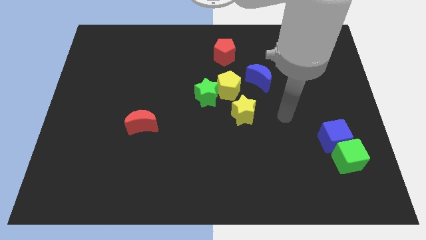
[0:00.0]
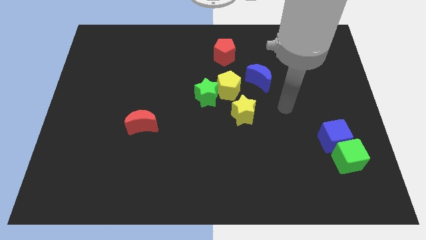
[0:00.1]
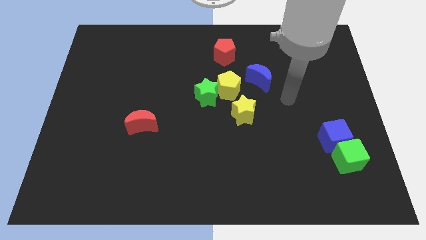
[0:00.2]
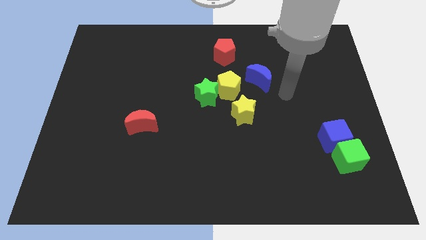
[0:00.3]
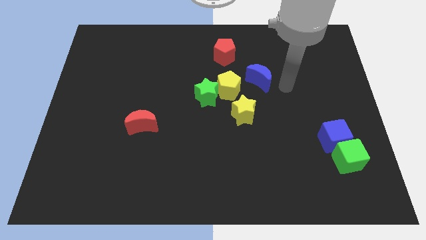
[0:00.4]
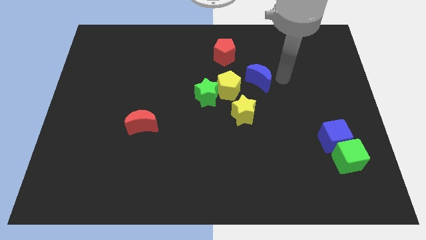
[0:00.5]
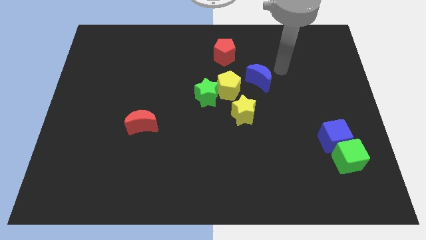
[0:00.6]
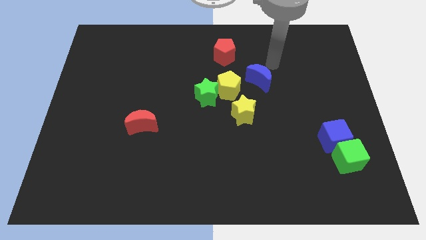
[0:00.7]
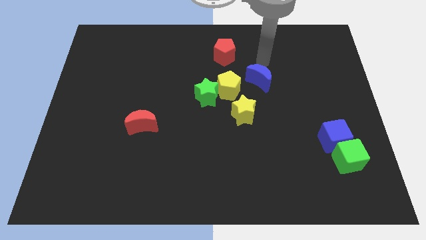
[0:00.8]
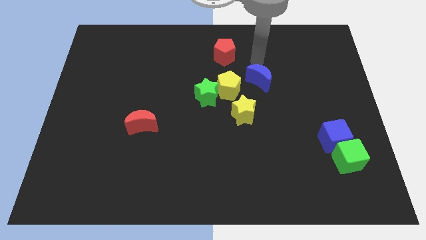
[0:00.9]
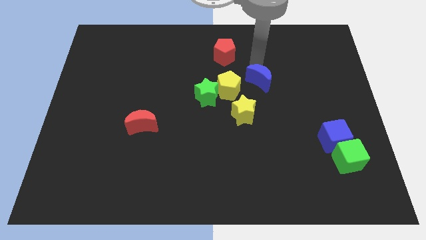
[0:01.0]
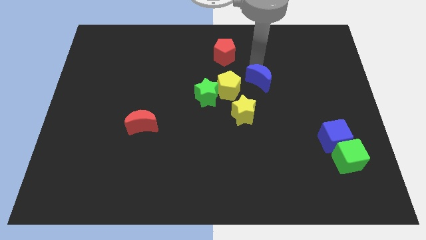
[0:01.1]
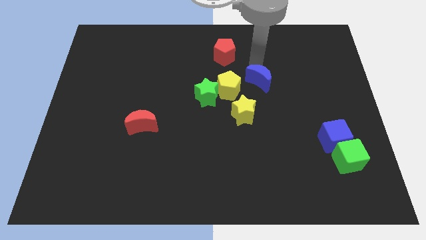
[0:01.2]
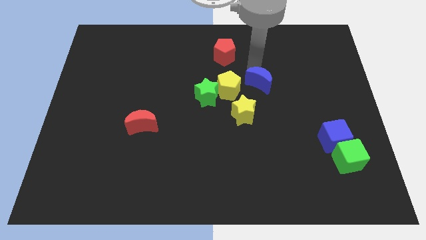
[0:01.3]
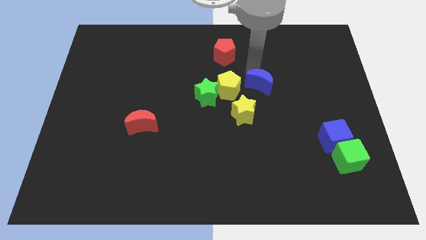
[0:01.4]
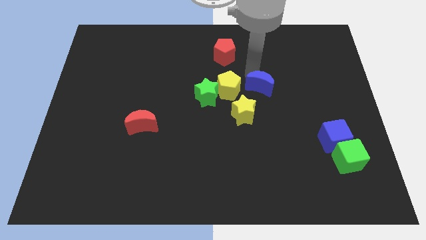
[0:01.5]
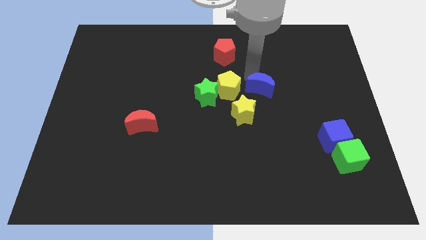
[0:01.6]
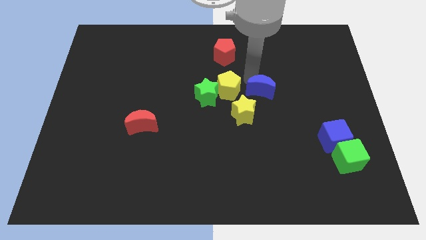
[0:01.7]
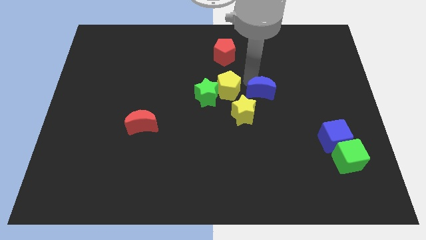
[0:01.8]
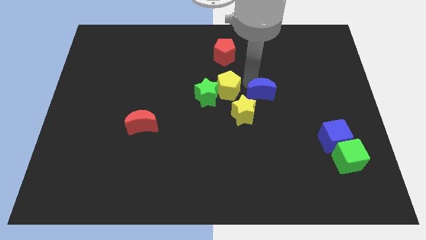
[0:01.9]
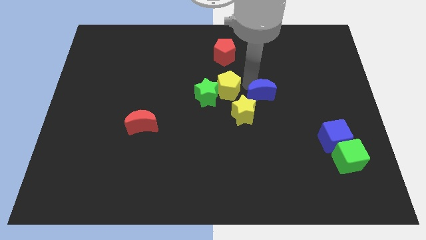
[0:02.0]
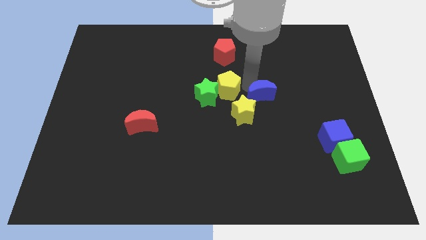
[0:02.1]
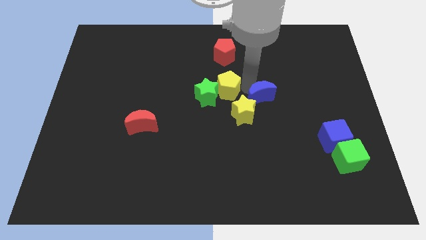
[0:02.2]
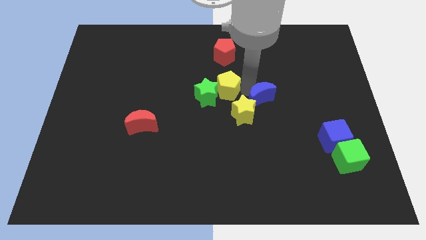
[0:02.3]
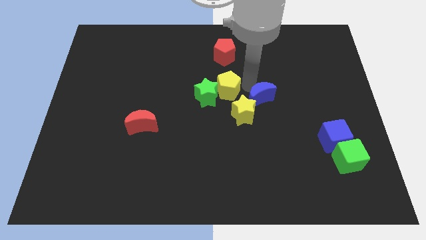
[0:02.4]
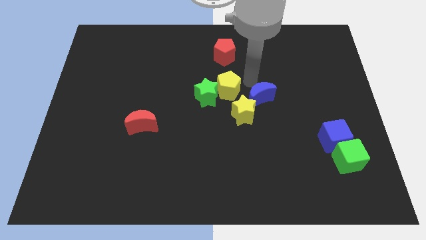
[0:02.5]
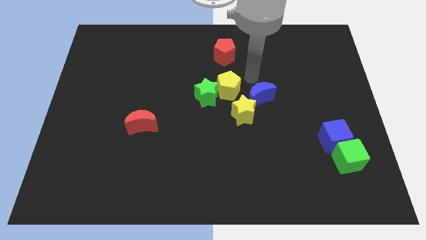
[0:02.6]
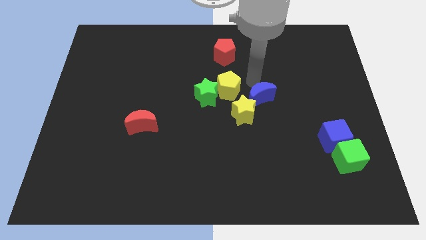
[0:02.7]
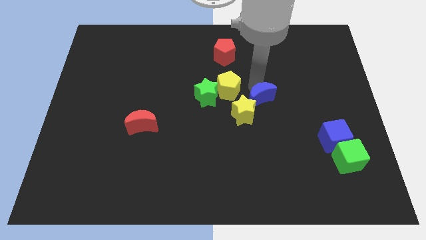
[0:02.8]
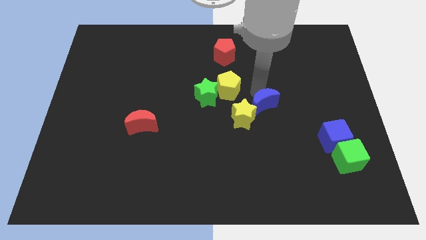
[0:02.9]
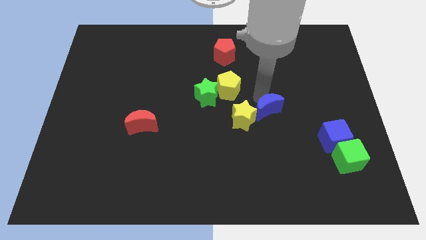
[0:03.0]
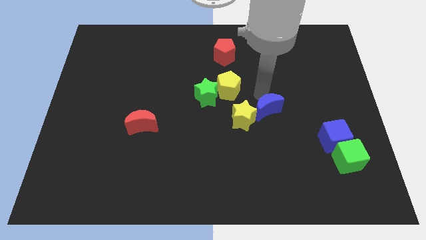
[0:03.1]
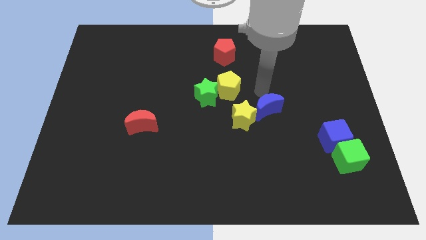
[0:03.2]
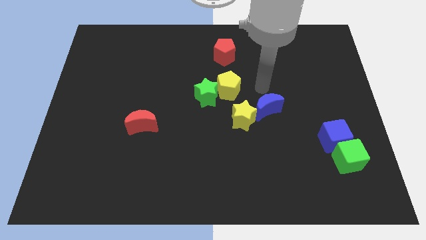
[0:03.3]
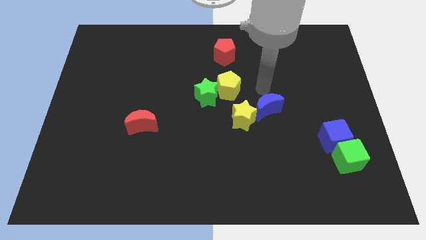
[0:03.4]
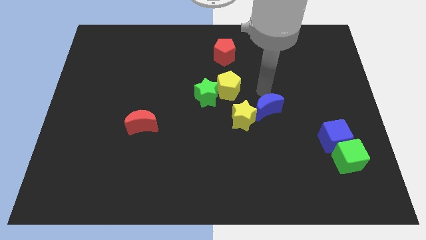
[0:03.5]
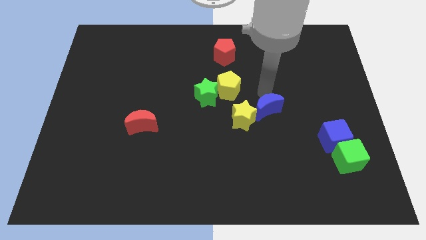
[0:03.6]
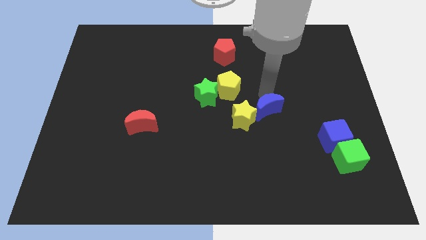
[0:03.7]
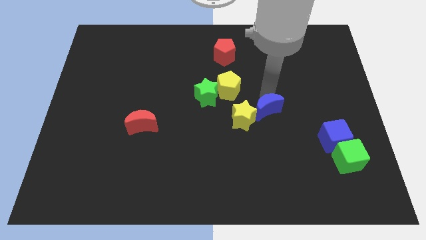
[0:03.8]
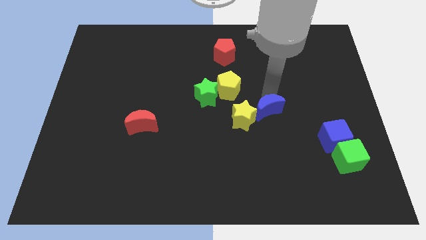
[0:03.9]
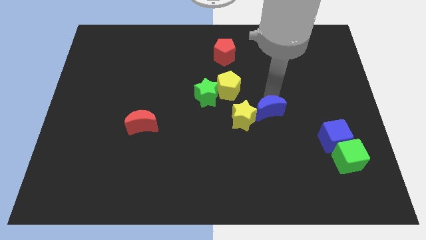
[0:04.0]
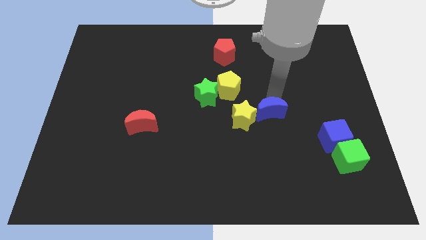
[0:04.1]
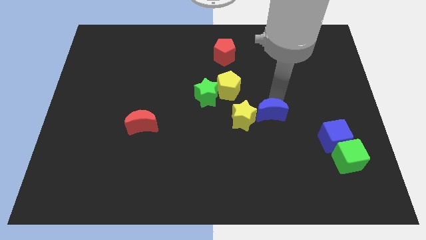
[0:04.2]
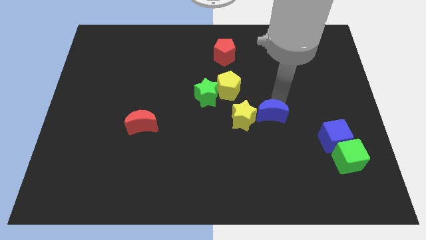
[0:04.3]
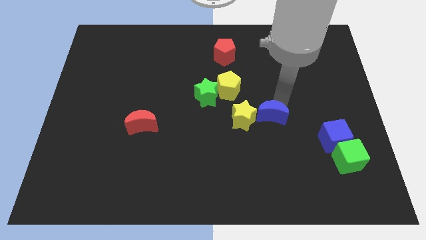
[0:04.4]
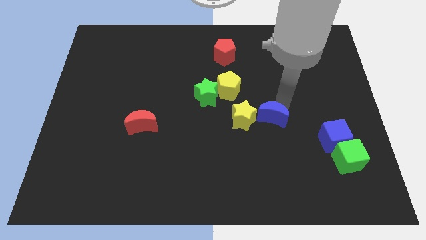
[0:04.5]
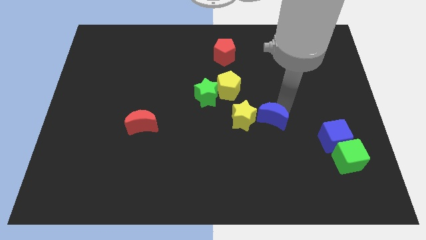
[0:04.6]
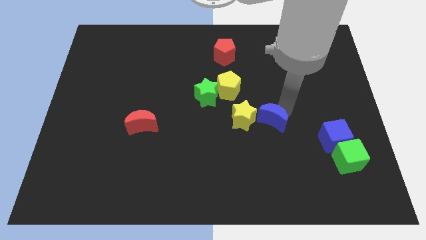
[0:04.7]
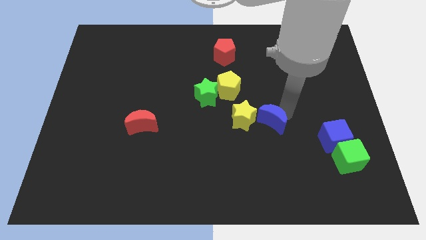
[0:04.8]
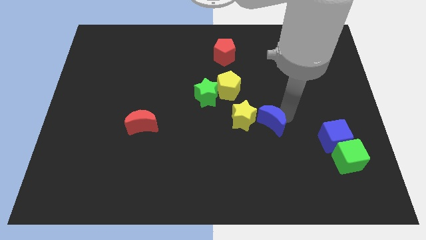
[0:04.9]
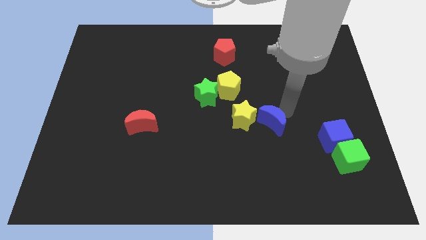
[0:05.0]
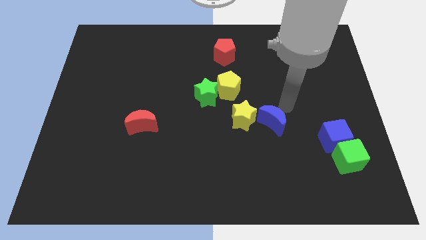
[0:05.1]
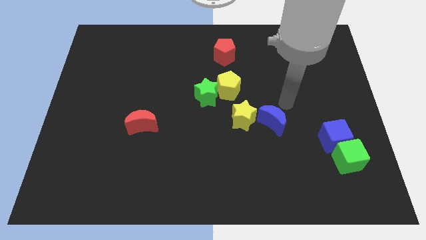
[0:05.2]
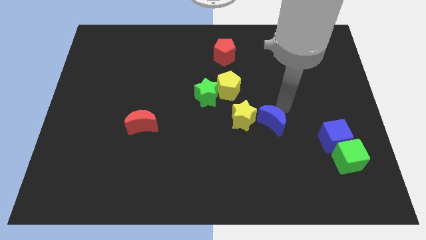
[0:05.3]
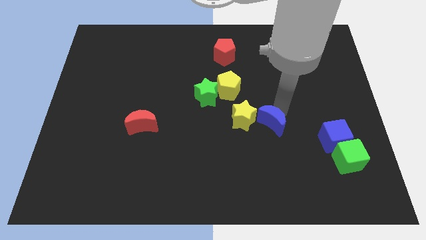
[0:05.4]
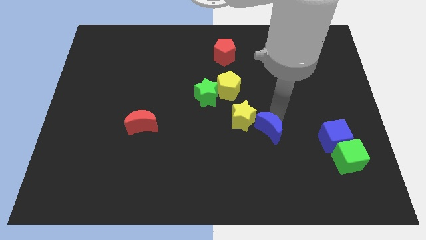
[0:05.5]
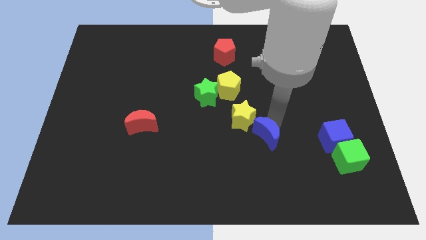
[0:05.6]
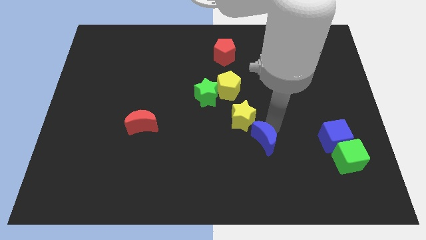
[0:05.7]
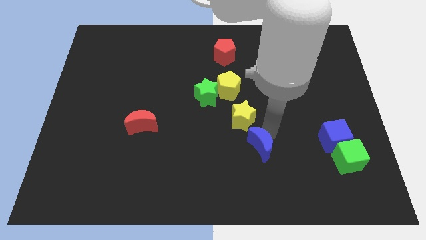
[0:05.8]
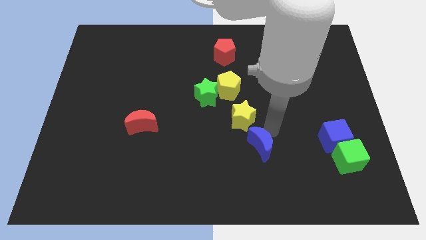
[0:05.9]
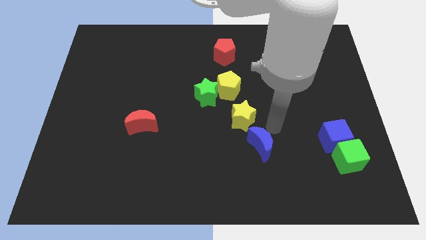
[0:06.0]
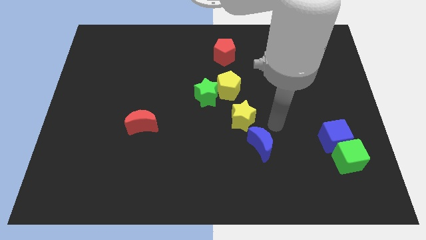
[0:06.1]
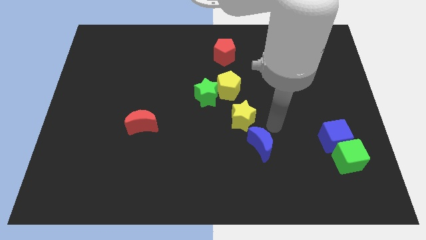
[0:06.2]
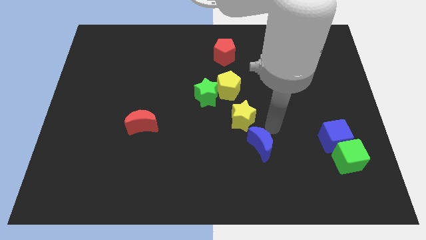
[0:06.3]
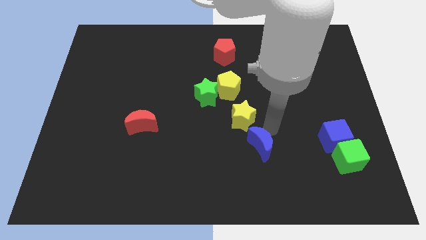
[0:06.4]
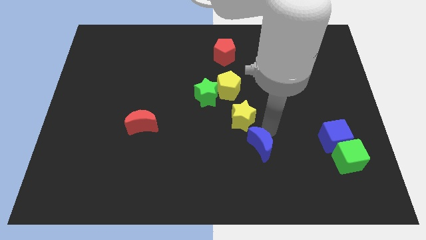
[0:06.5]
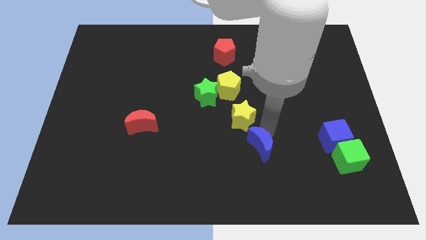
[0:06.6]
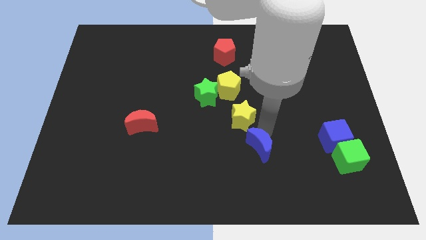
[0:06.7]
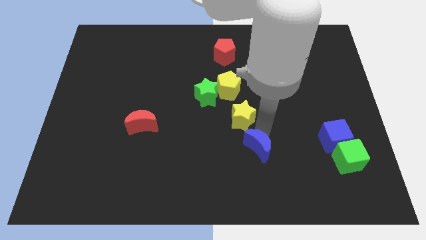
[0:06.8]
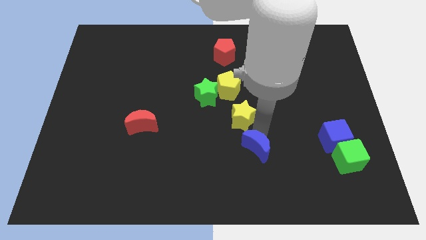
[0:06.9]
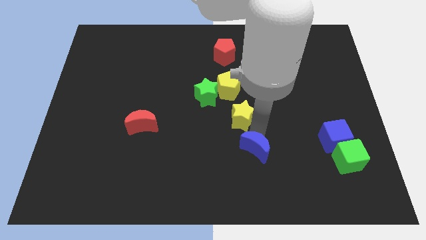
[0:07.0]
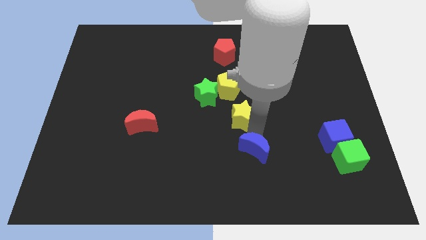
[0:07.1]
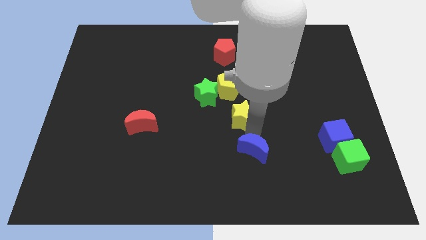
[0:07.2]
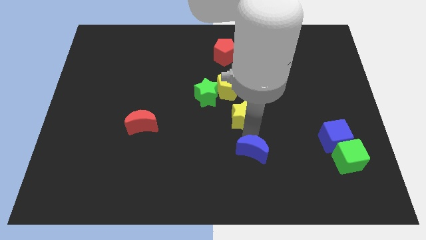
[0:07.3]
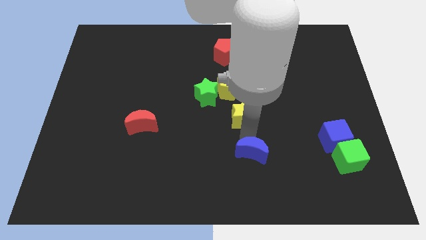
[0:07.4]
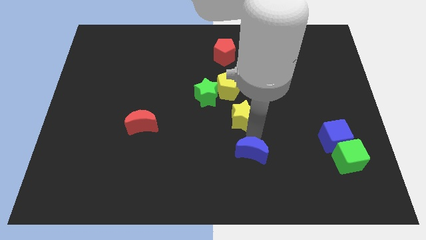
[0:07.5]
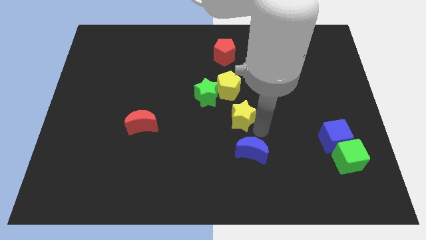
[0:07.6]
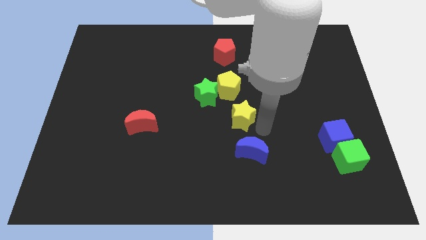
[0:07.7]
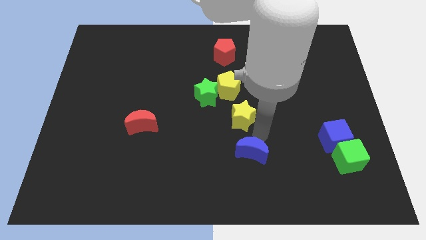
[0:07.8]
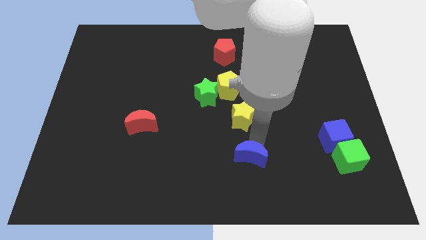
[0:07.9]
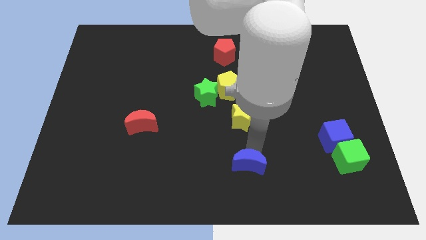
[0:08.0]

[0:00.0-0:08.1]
put the blue moon to the bottom
